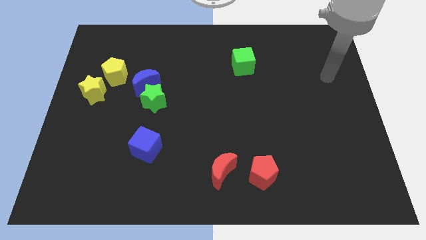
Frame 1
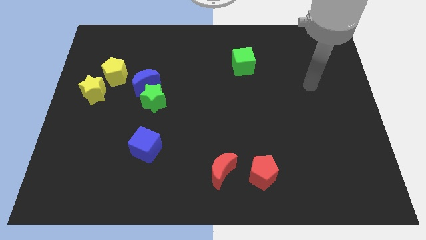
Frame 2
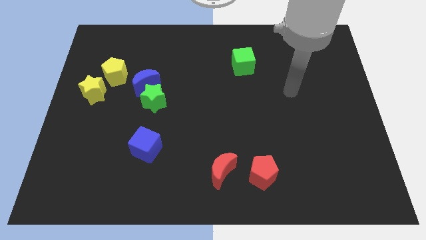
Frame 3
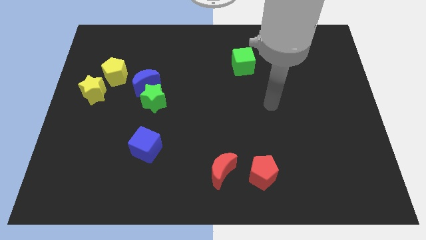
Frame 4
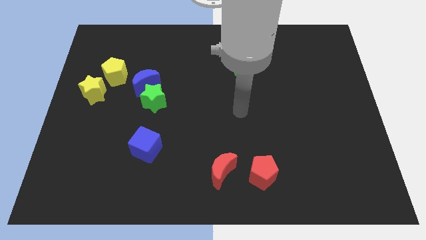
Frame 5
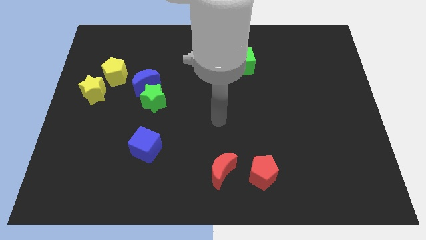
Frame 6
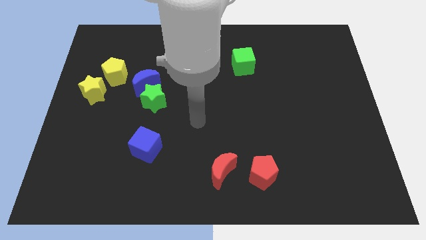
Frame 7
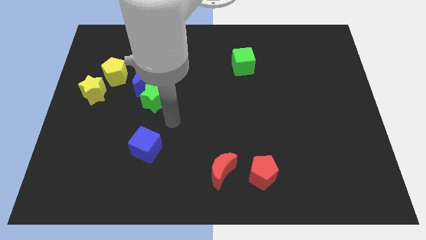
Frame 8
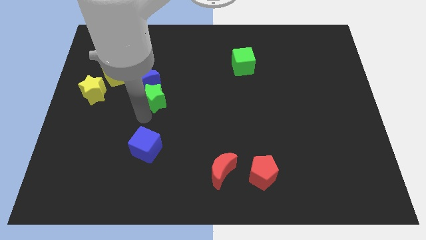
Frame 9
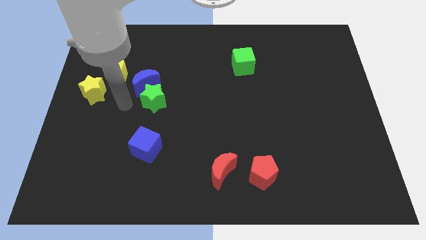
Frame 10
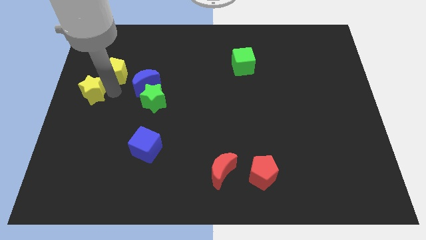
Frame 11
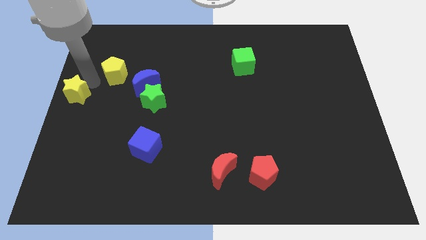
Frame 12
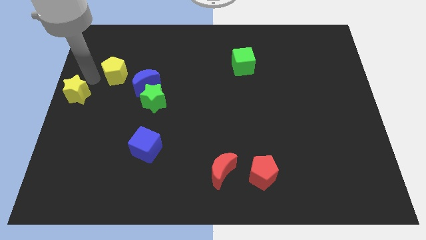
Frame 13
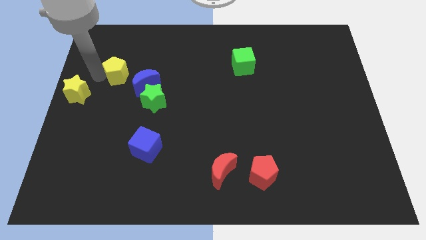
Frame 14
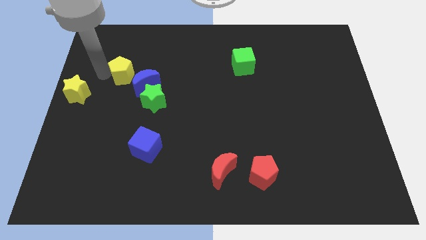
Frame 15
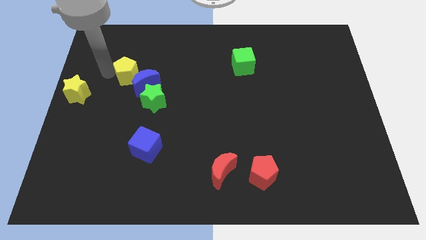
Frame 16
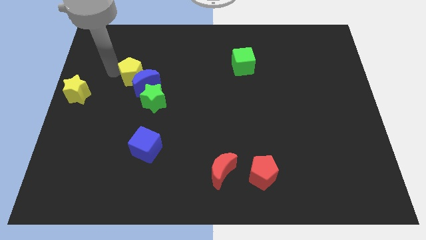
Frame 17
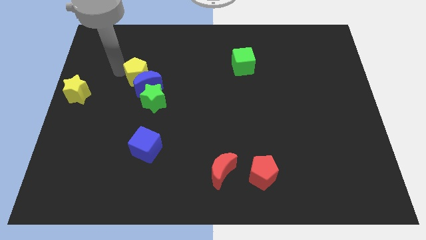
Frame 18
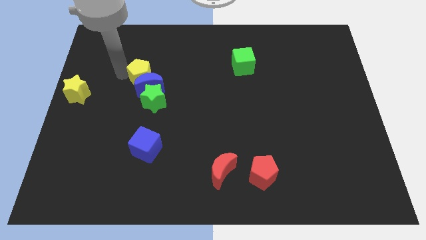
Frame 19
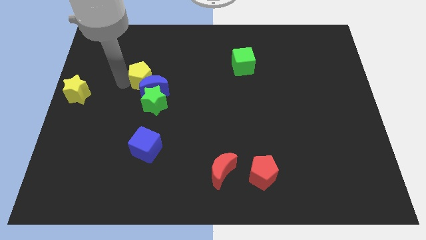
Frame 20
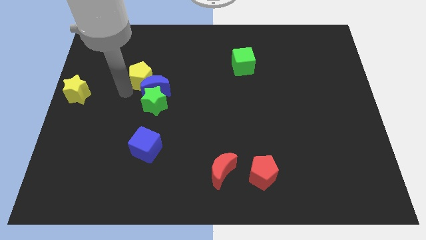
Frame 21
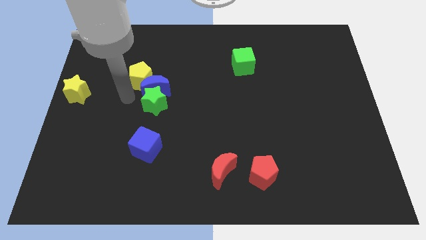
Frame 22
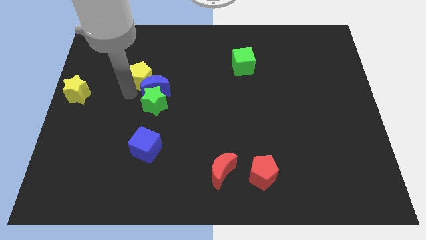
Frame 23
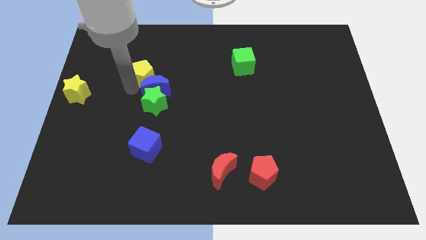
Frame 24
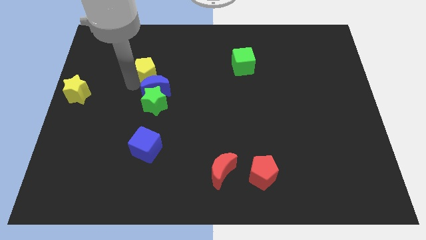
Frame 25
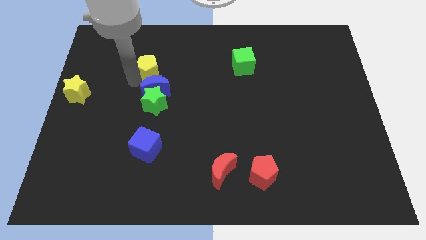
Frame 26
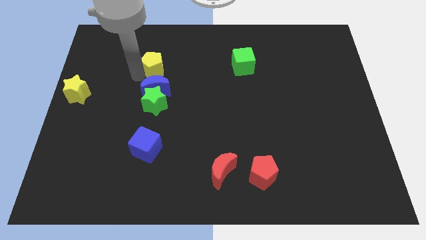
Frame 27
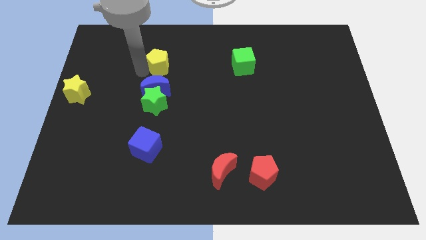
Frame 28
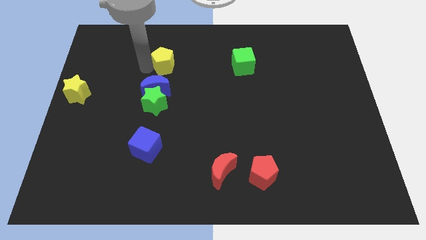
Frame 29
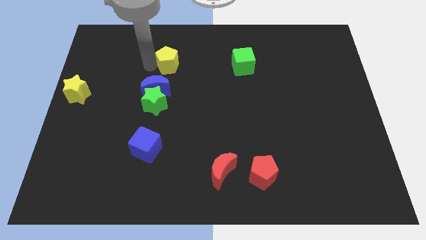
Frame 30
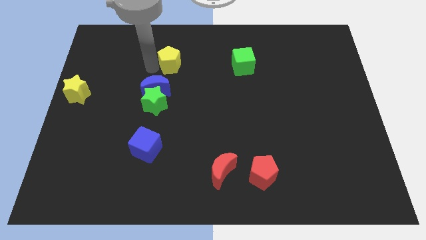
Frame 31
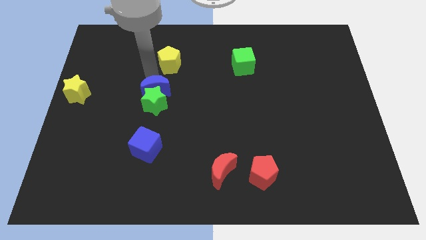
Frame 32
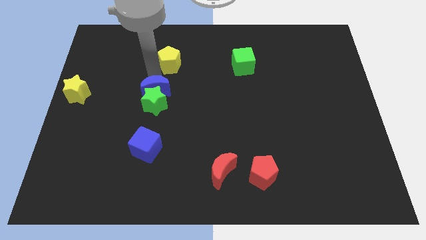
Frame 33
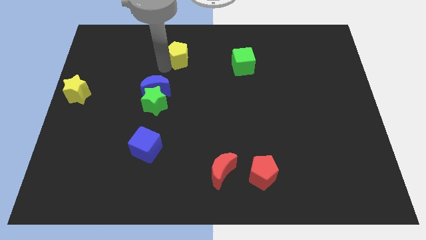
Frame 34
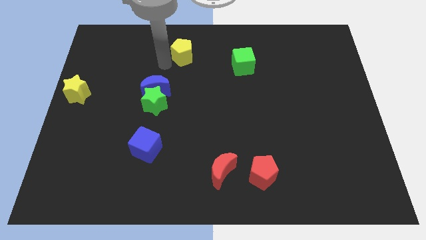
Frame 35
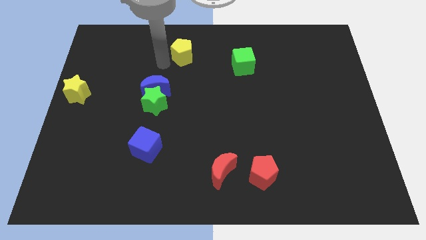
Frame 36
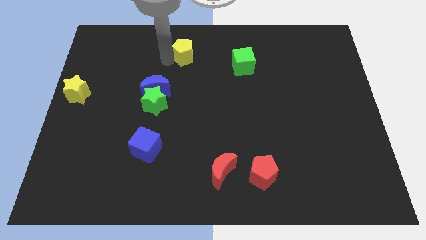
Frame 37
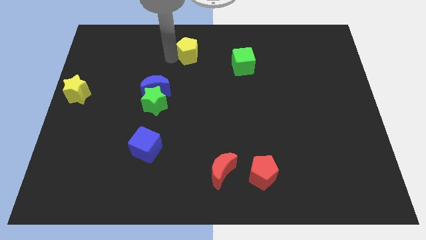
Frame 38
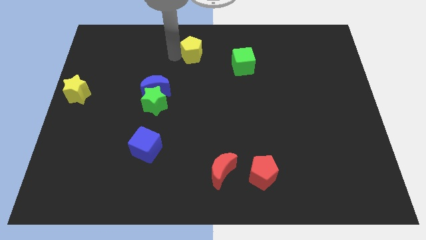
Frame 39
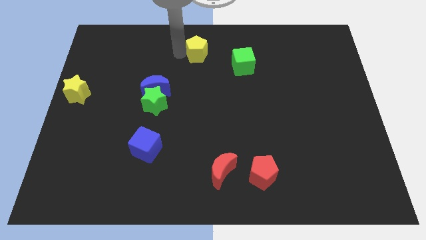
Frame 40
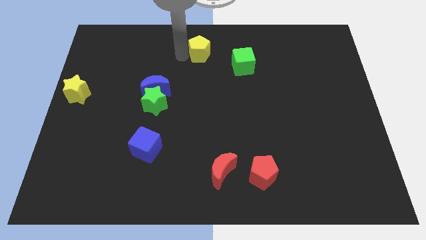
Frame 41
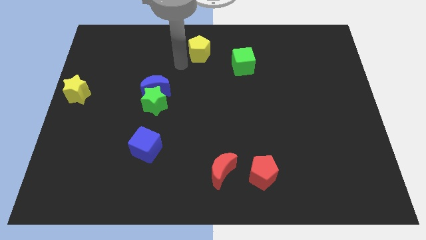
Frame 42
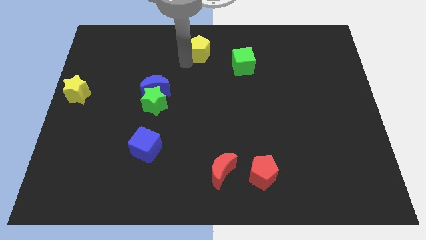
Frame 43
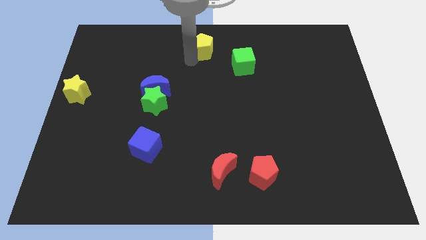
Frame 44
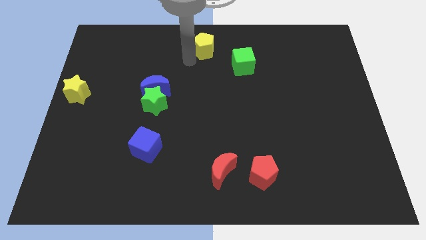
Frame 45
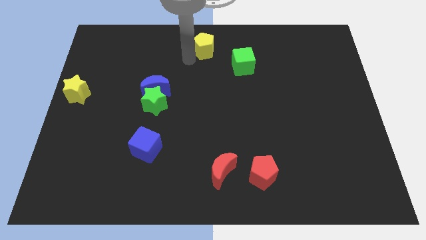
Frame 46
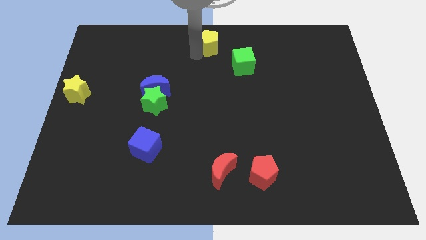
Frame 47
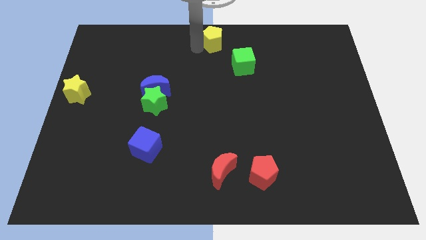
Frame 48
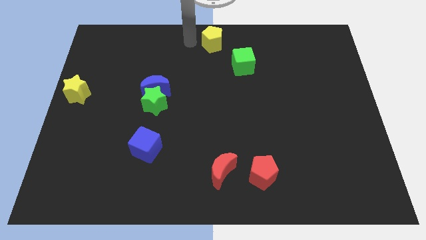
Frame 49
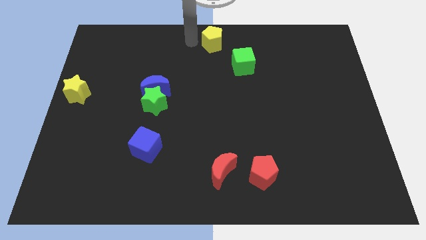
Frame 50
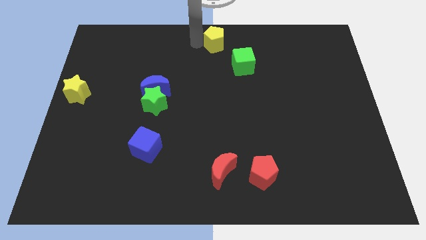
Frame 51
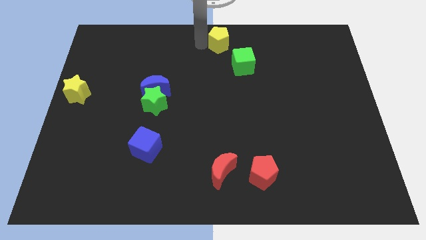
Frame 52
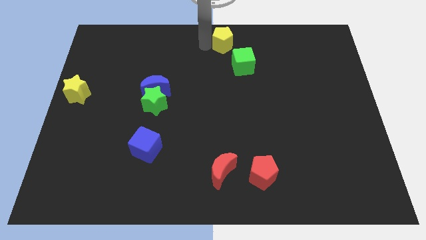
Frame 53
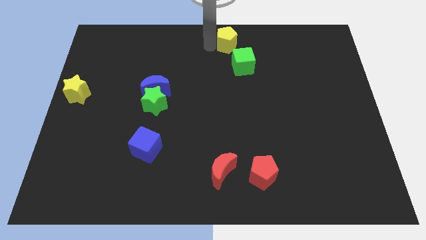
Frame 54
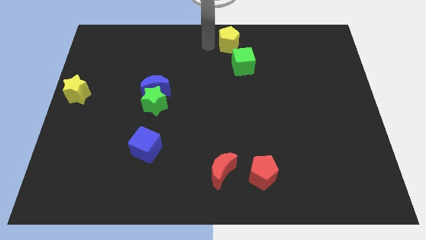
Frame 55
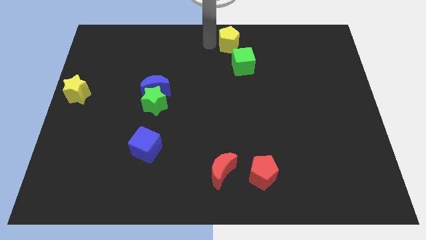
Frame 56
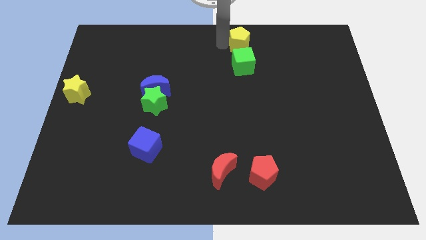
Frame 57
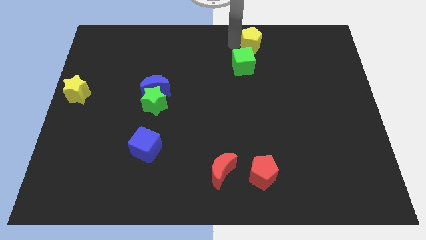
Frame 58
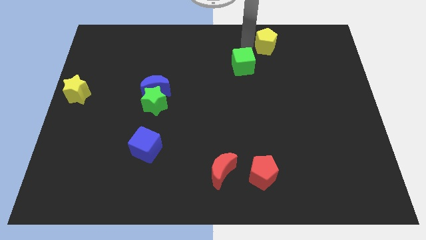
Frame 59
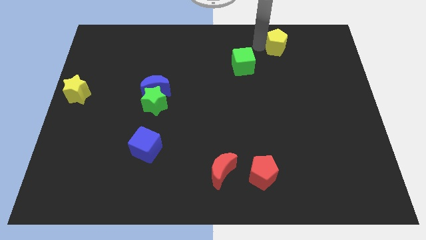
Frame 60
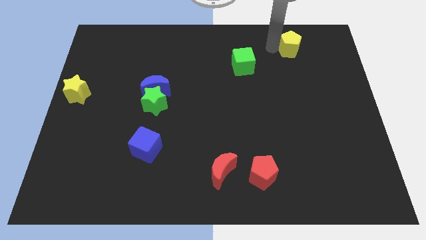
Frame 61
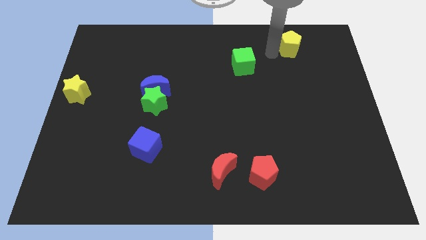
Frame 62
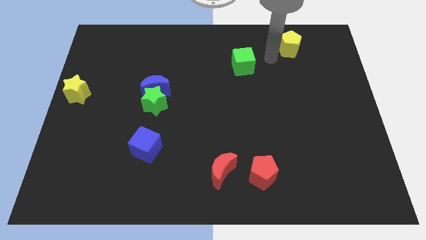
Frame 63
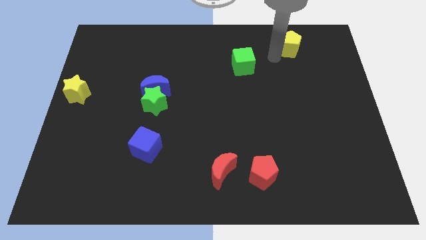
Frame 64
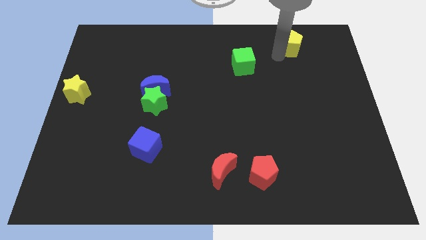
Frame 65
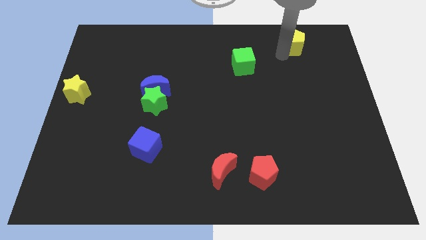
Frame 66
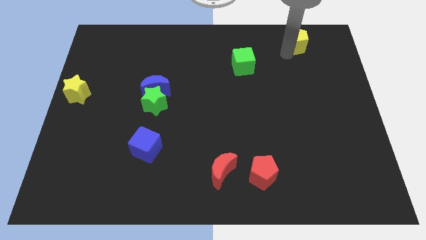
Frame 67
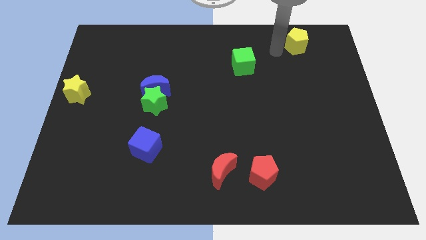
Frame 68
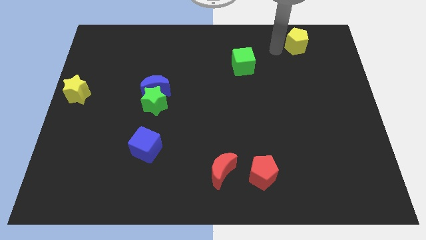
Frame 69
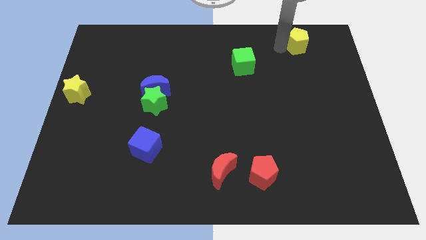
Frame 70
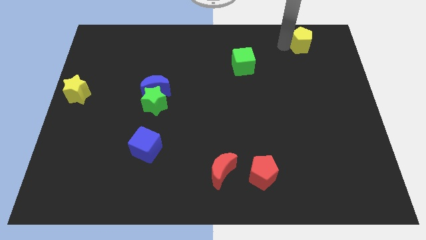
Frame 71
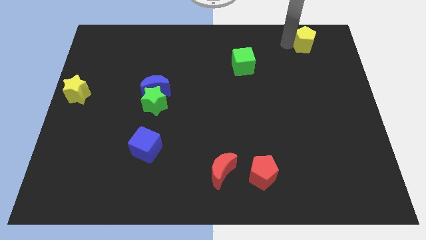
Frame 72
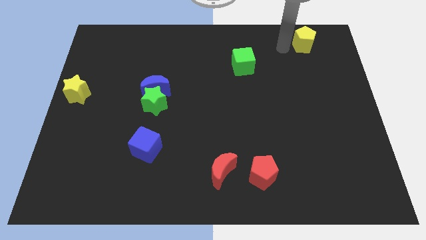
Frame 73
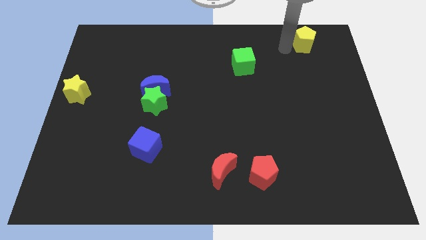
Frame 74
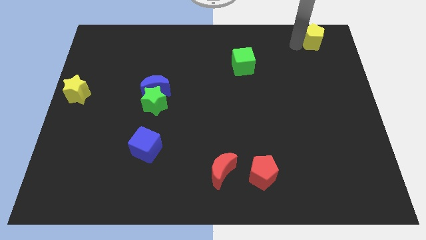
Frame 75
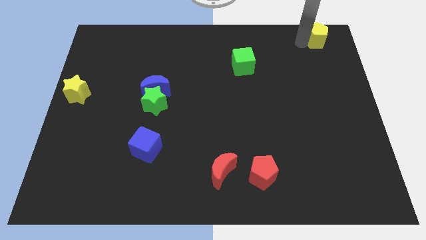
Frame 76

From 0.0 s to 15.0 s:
put the yellow pentagon to the top right of the board
